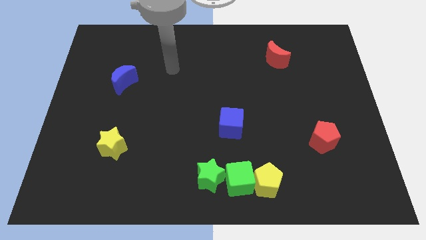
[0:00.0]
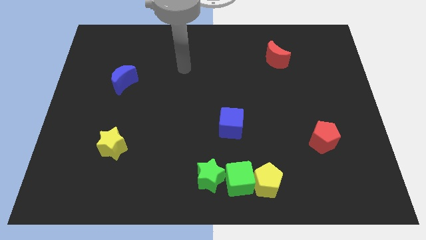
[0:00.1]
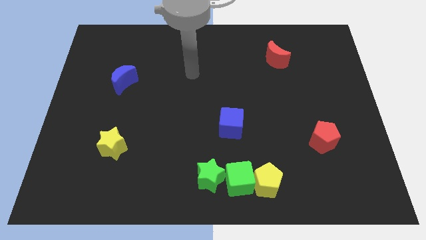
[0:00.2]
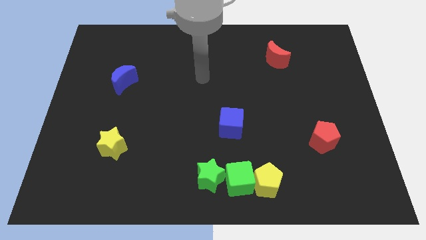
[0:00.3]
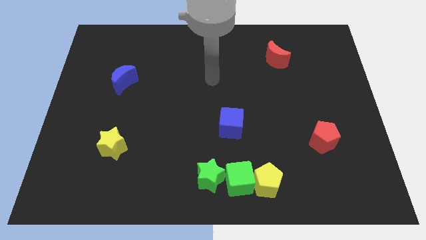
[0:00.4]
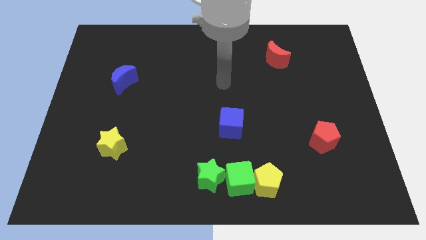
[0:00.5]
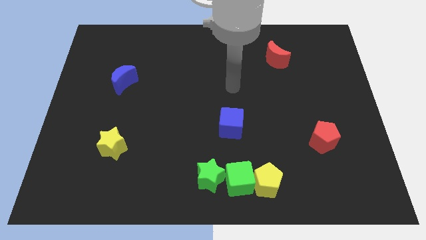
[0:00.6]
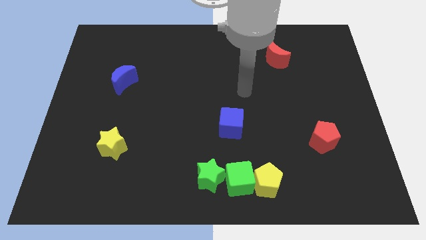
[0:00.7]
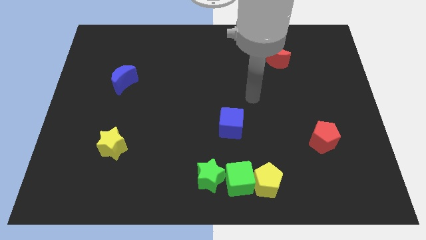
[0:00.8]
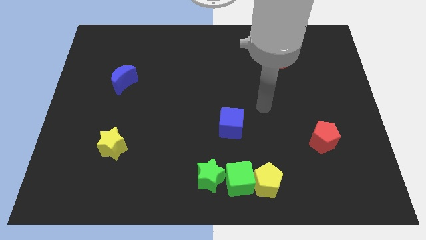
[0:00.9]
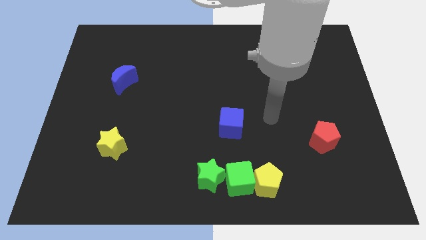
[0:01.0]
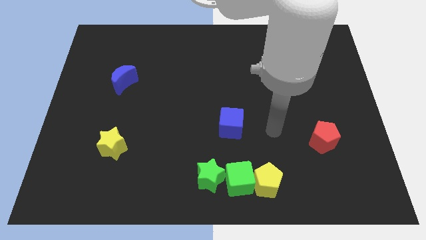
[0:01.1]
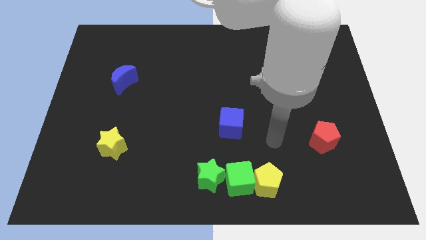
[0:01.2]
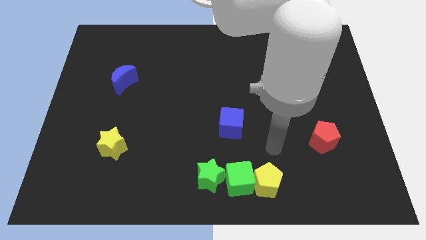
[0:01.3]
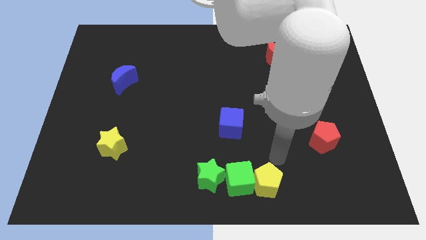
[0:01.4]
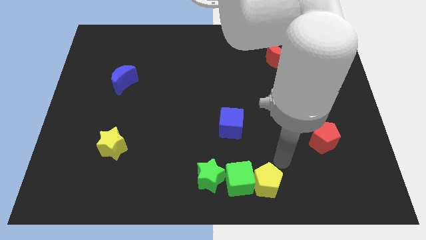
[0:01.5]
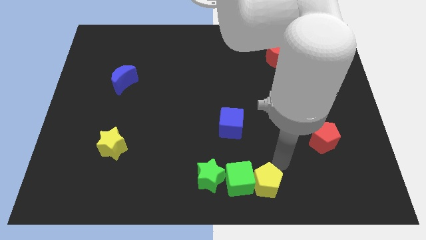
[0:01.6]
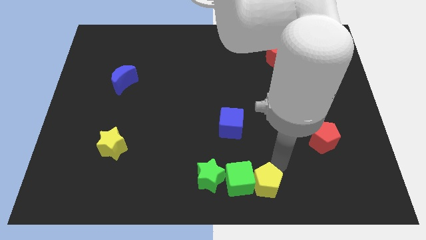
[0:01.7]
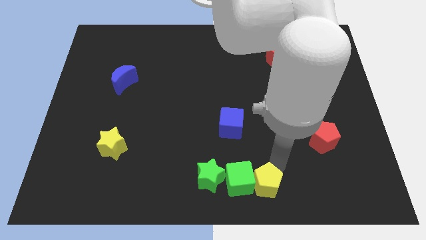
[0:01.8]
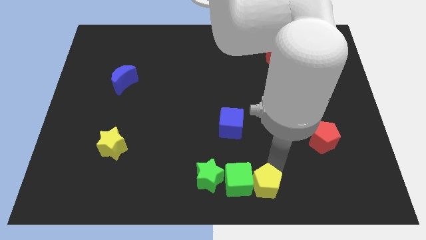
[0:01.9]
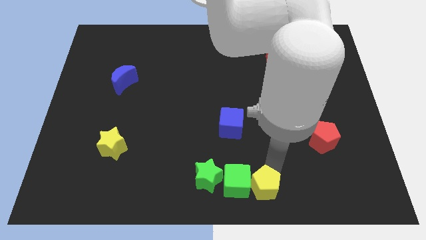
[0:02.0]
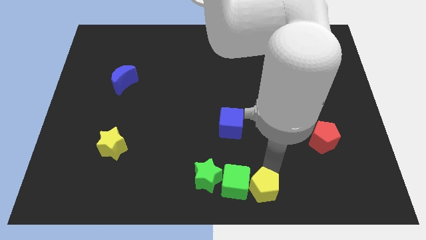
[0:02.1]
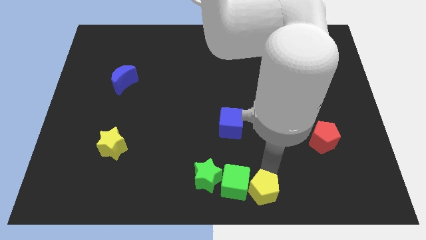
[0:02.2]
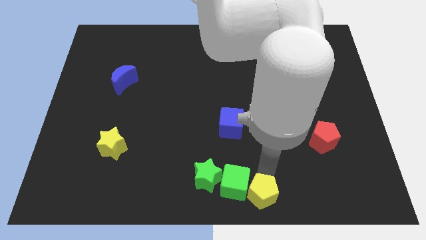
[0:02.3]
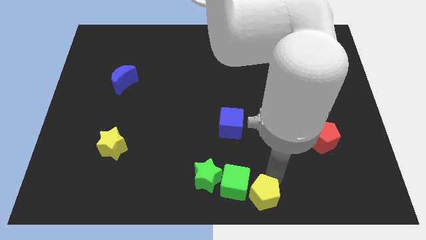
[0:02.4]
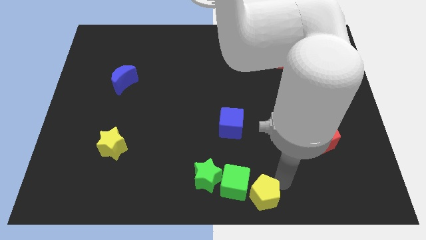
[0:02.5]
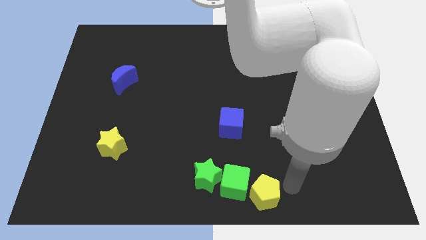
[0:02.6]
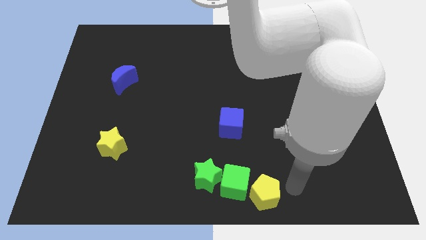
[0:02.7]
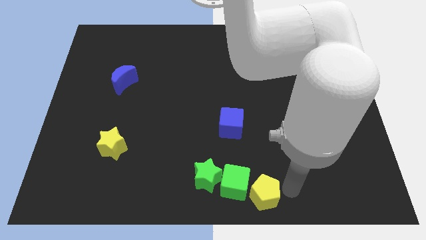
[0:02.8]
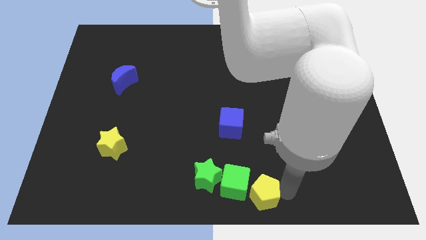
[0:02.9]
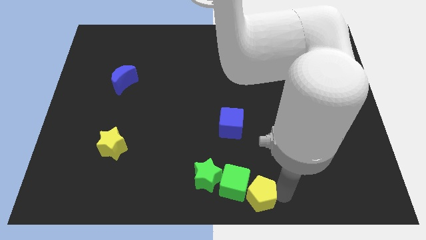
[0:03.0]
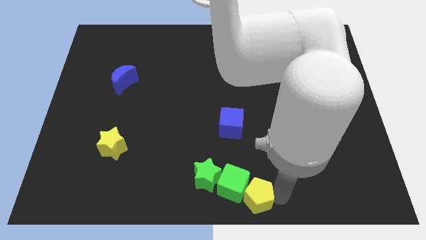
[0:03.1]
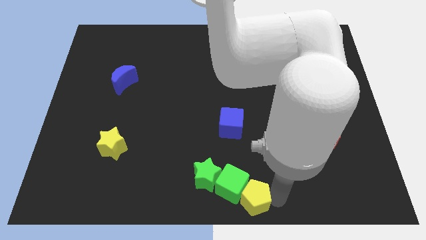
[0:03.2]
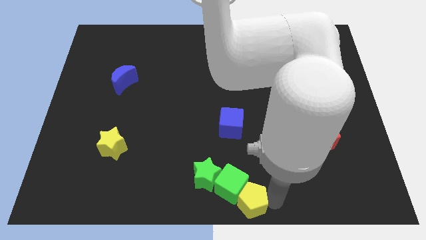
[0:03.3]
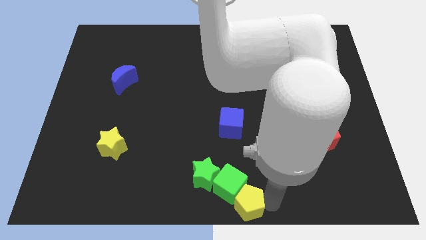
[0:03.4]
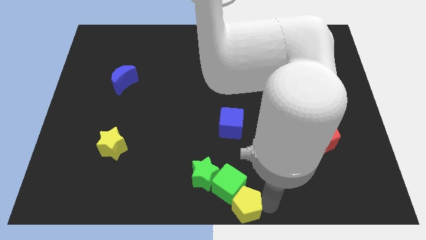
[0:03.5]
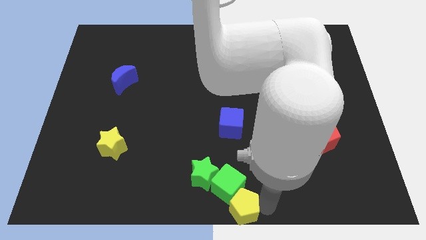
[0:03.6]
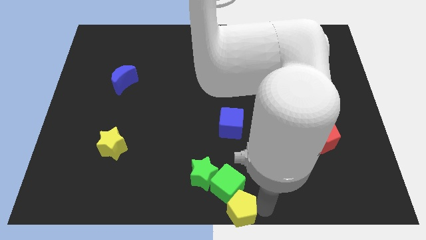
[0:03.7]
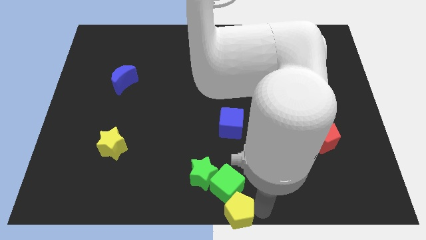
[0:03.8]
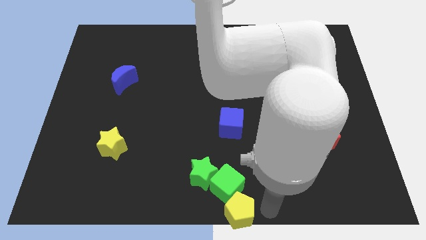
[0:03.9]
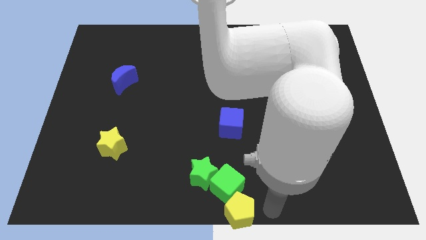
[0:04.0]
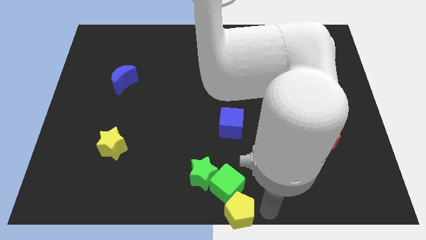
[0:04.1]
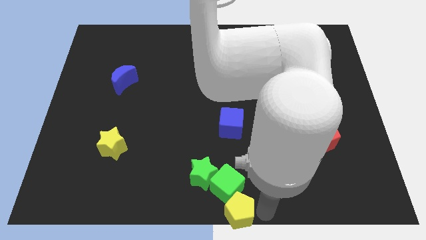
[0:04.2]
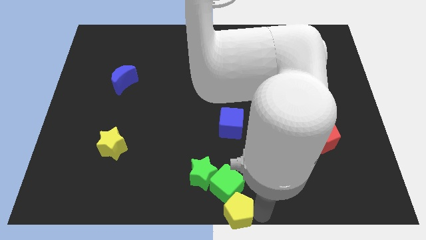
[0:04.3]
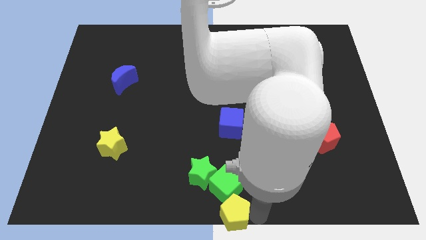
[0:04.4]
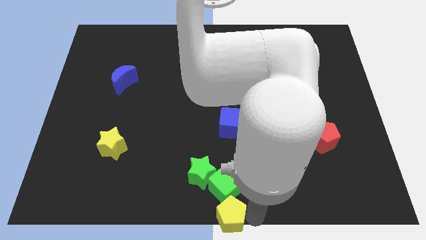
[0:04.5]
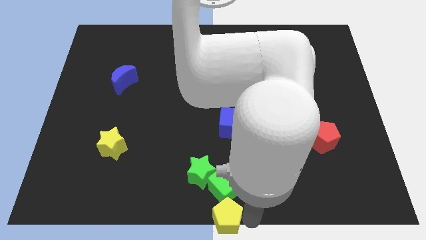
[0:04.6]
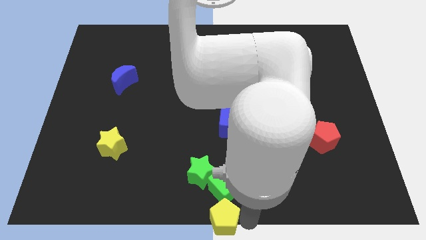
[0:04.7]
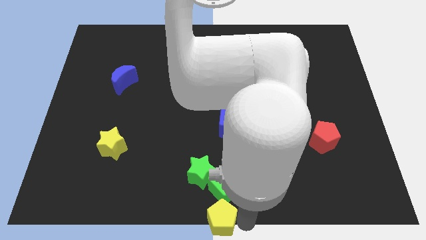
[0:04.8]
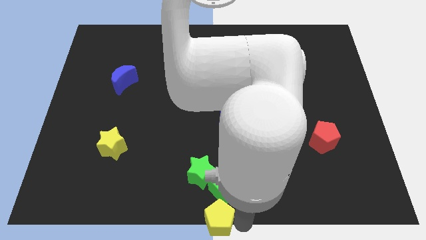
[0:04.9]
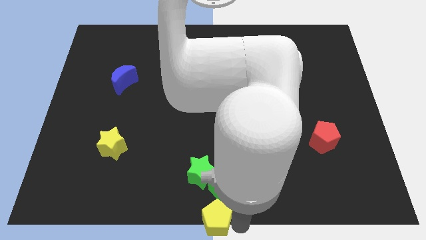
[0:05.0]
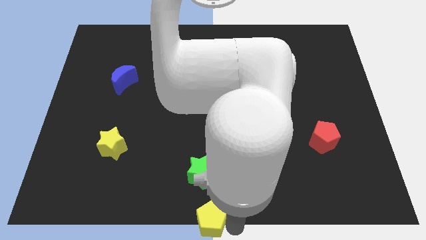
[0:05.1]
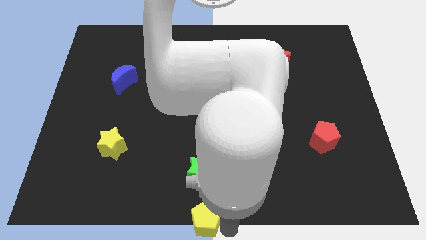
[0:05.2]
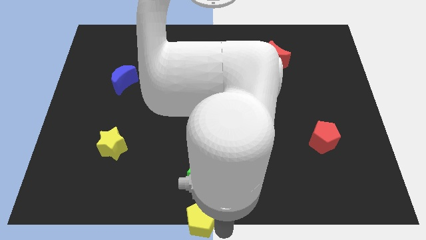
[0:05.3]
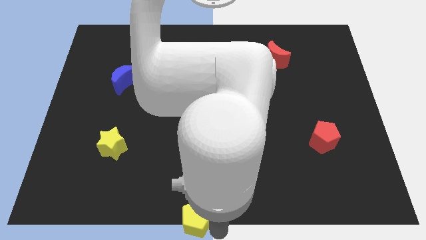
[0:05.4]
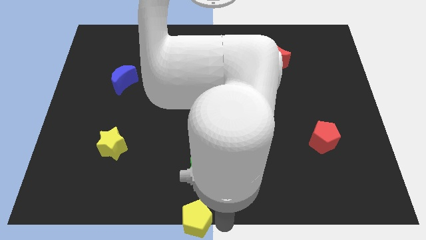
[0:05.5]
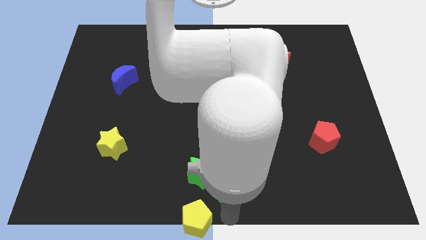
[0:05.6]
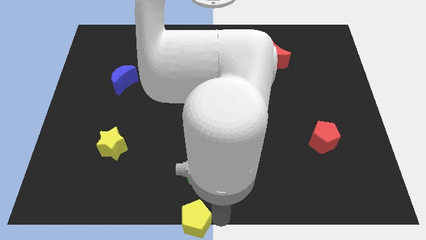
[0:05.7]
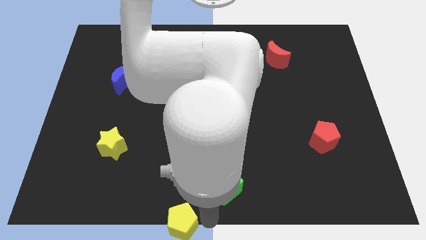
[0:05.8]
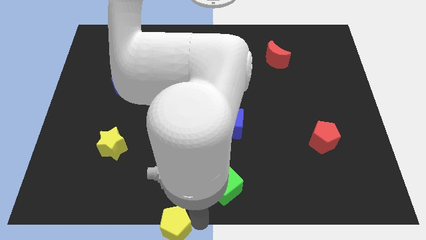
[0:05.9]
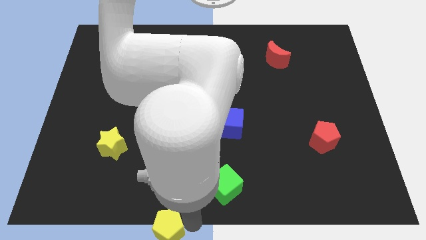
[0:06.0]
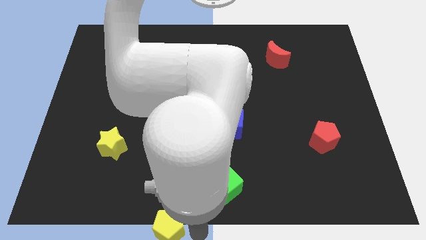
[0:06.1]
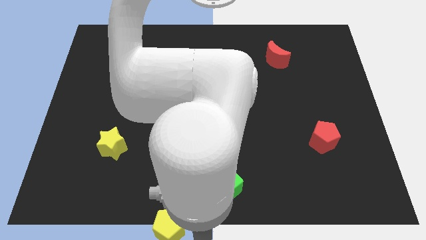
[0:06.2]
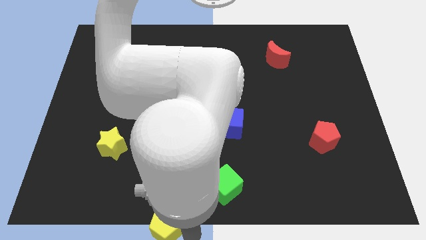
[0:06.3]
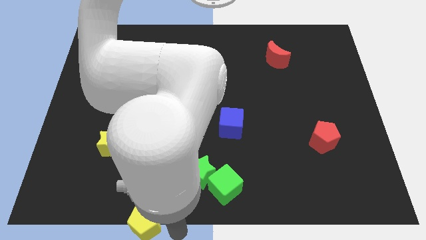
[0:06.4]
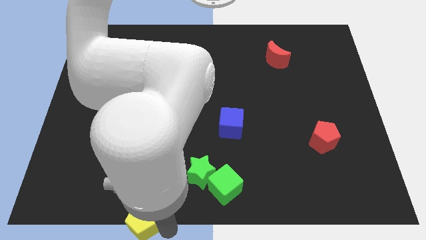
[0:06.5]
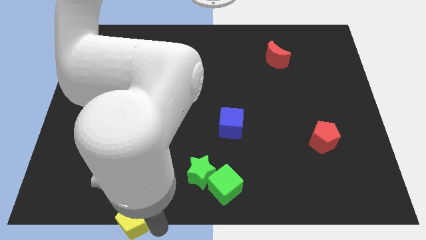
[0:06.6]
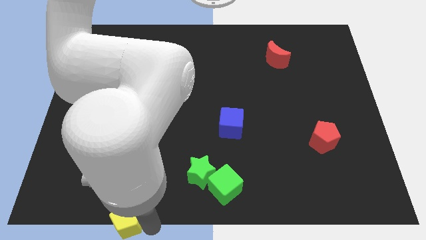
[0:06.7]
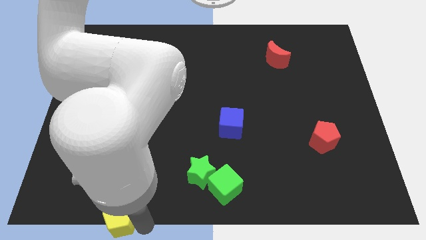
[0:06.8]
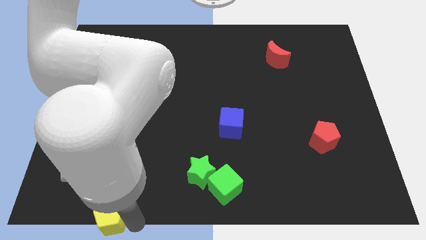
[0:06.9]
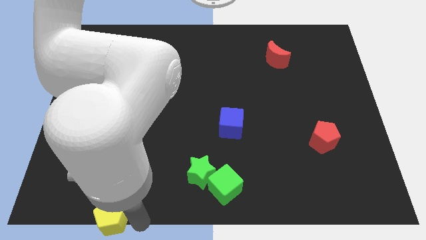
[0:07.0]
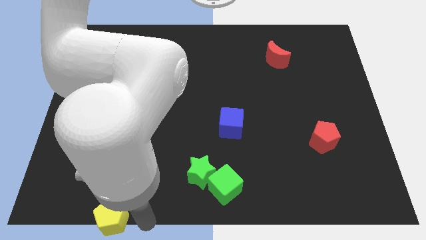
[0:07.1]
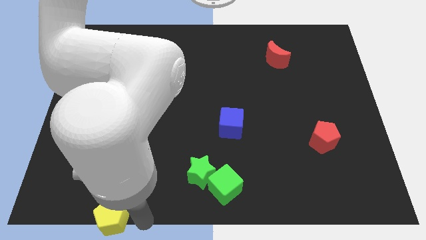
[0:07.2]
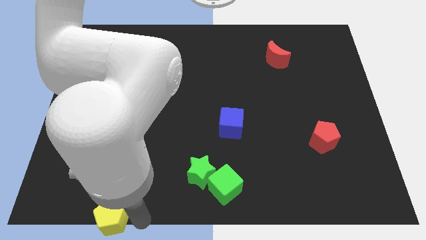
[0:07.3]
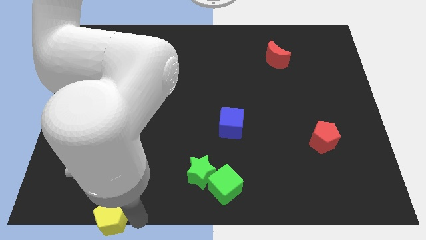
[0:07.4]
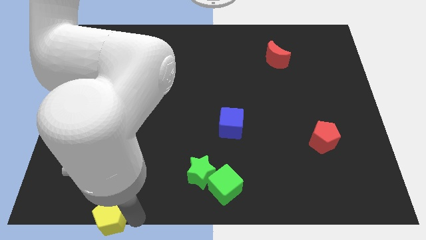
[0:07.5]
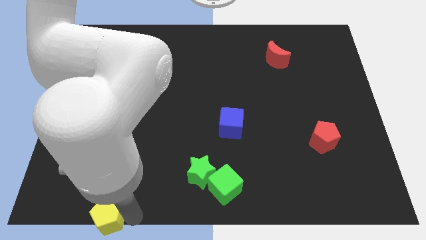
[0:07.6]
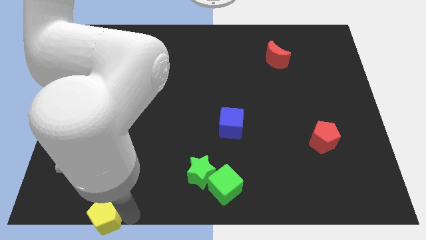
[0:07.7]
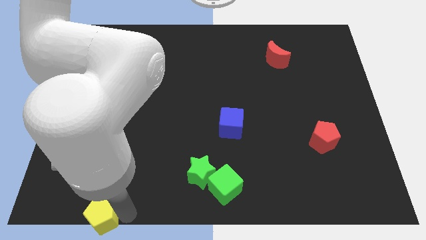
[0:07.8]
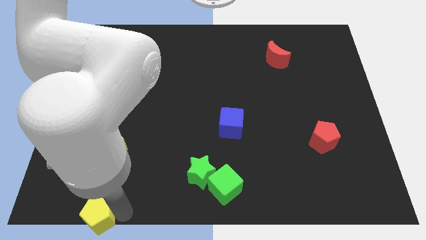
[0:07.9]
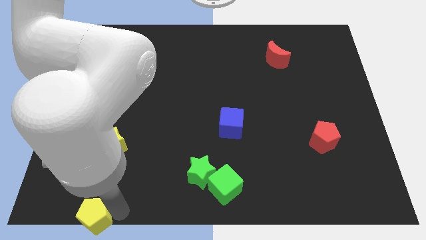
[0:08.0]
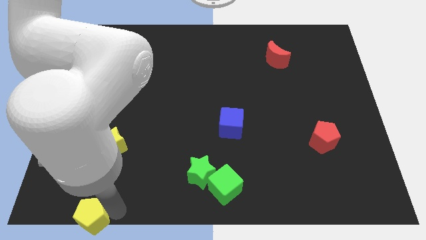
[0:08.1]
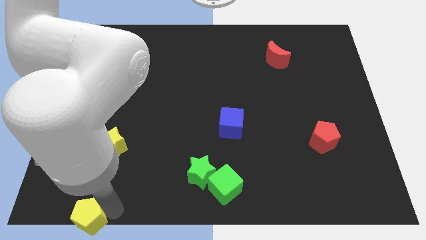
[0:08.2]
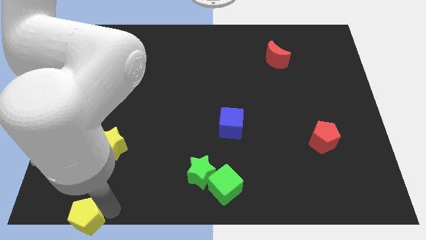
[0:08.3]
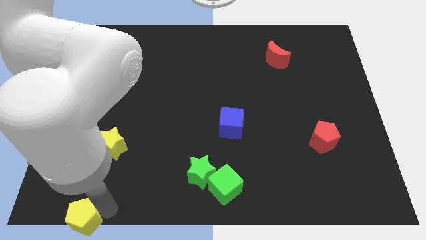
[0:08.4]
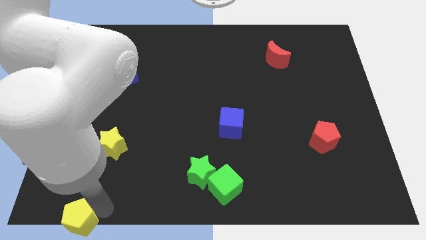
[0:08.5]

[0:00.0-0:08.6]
push the yellow pentagon to the bottom left corner
